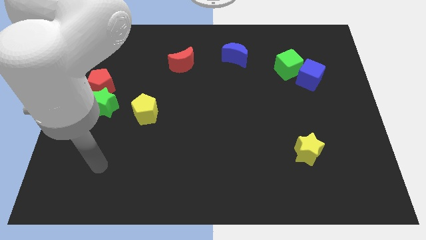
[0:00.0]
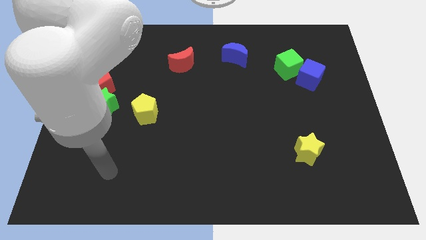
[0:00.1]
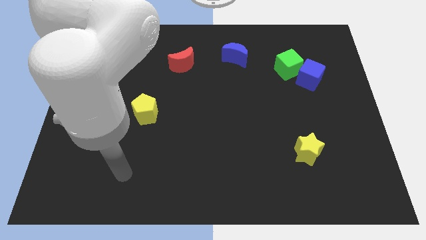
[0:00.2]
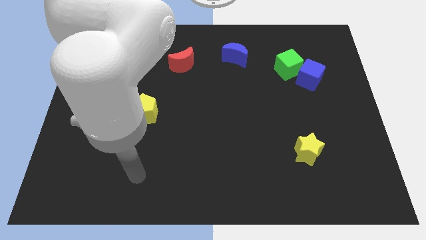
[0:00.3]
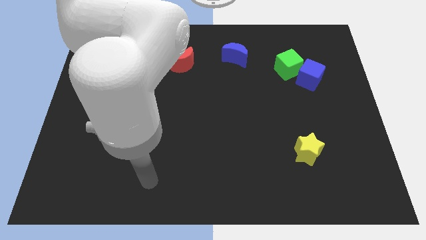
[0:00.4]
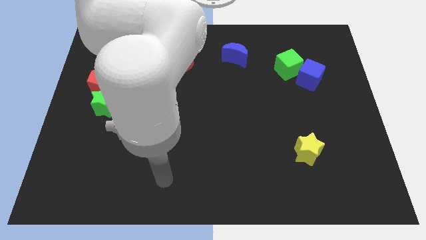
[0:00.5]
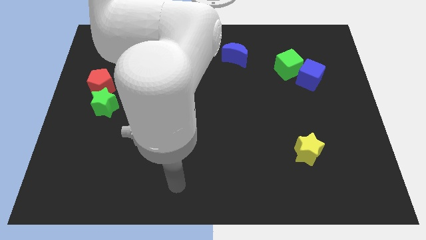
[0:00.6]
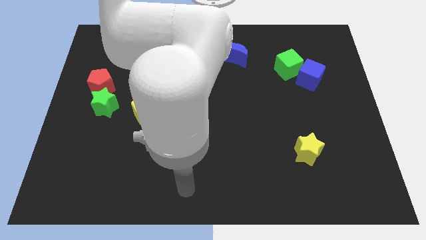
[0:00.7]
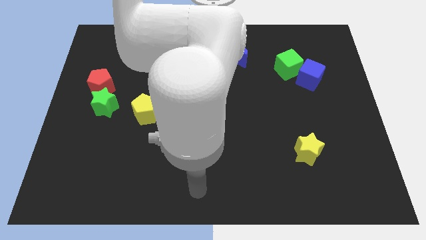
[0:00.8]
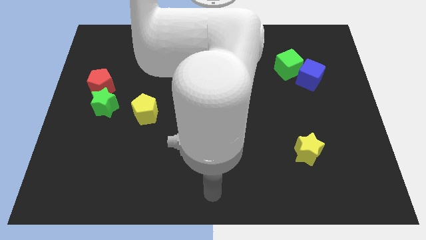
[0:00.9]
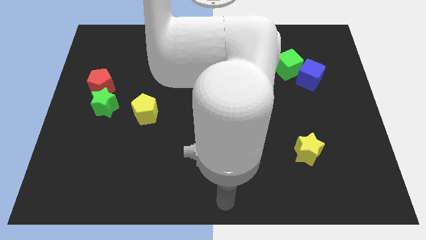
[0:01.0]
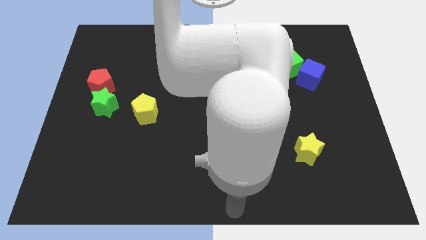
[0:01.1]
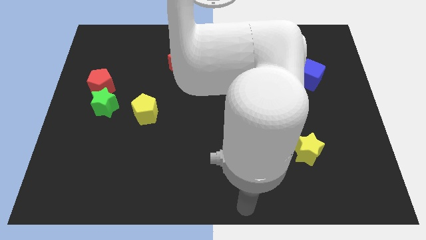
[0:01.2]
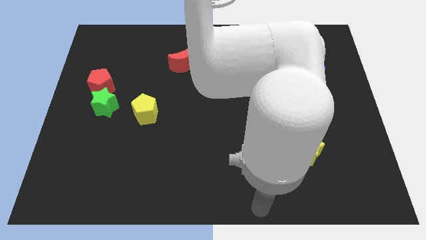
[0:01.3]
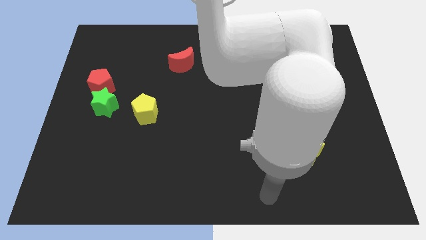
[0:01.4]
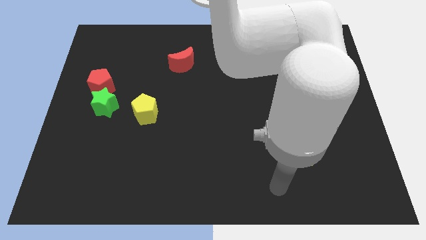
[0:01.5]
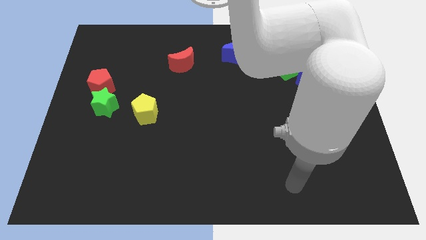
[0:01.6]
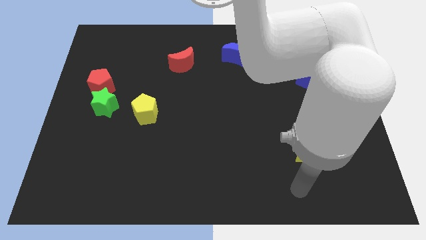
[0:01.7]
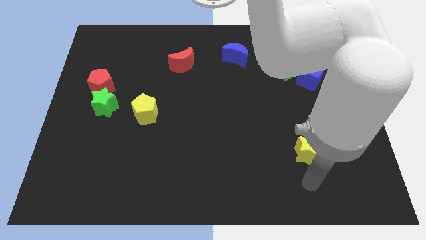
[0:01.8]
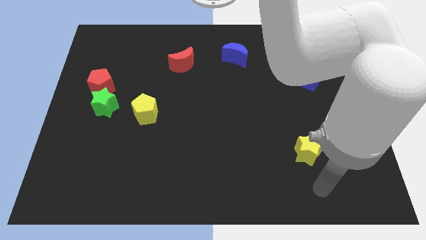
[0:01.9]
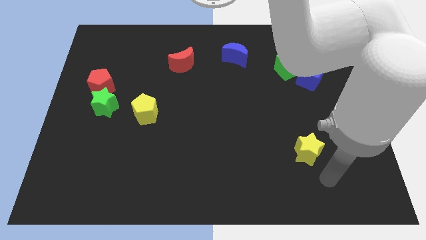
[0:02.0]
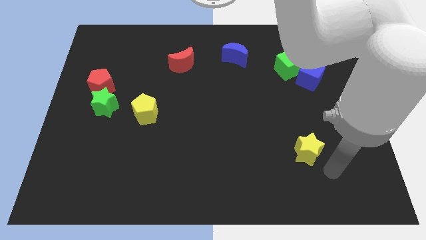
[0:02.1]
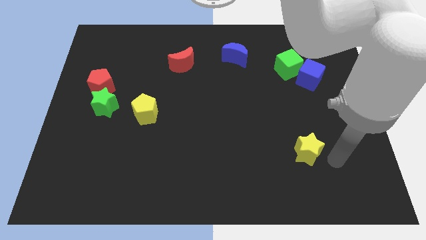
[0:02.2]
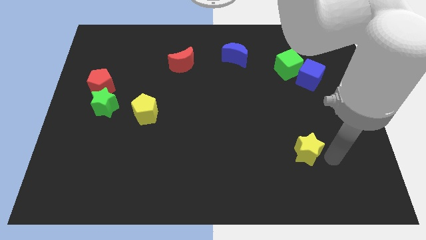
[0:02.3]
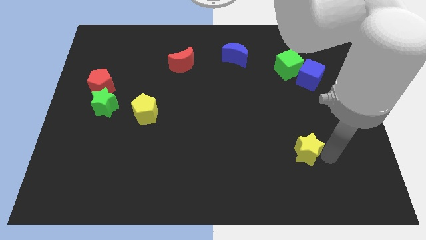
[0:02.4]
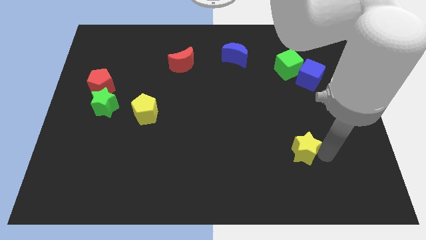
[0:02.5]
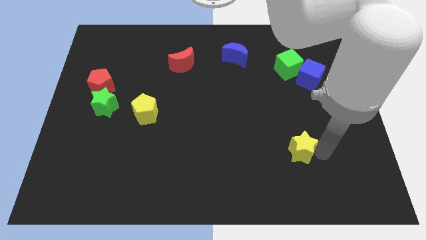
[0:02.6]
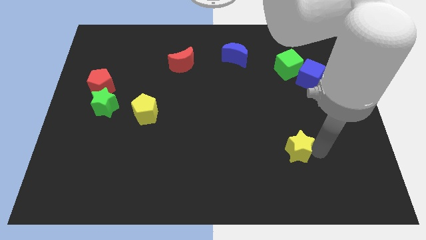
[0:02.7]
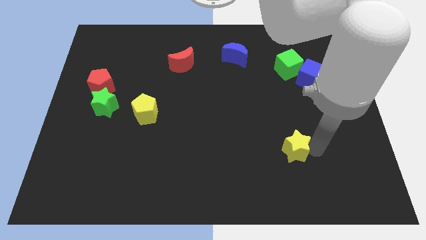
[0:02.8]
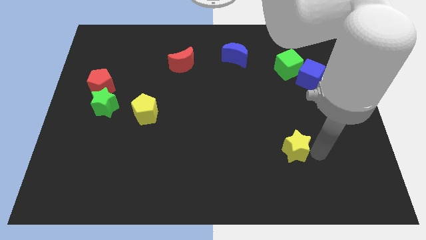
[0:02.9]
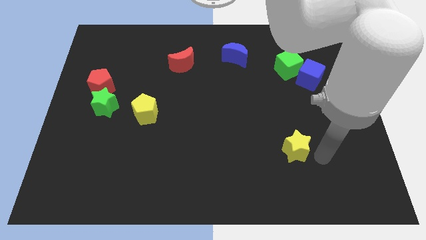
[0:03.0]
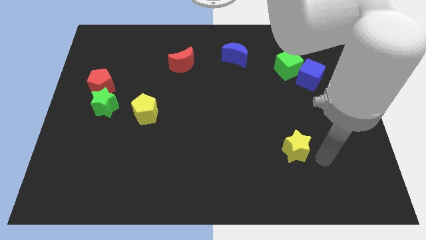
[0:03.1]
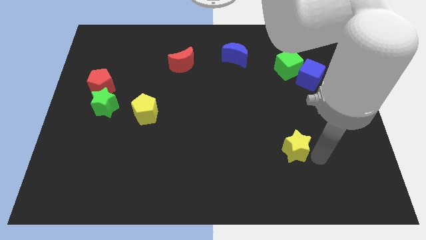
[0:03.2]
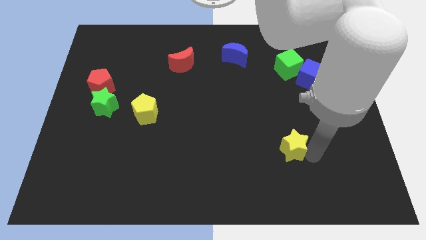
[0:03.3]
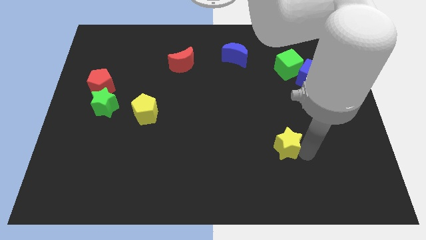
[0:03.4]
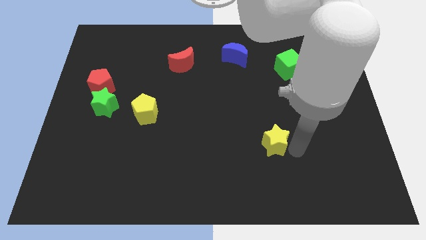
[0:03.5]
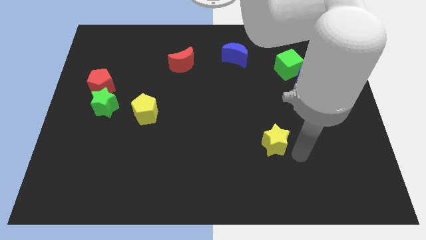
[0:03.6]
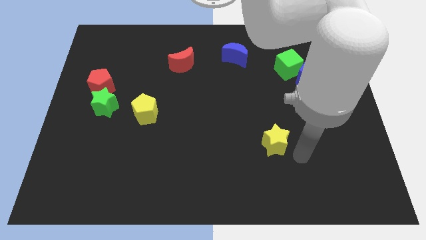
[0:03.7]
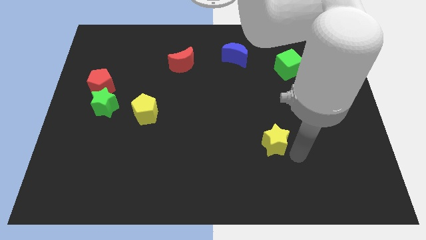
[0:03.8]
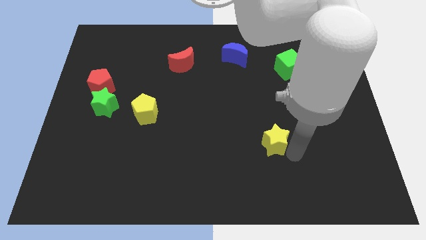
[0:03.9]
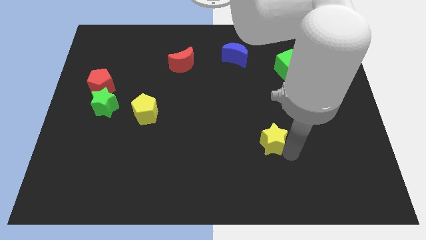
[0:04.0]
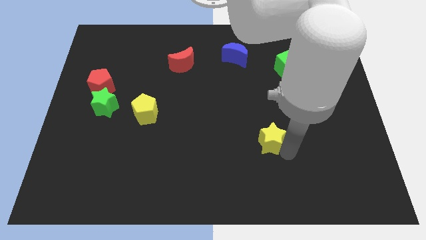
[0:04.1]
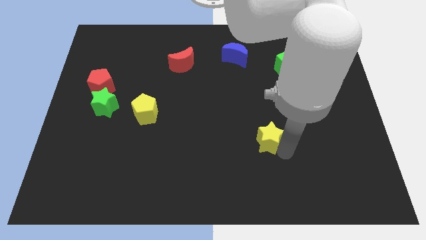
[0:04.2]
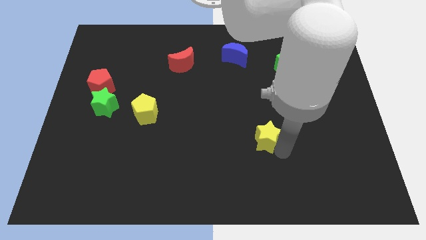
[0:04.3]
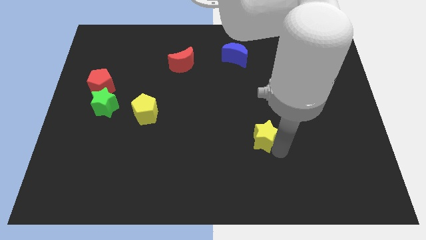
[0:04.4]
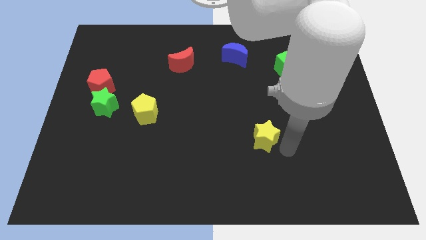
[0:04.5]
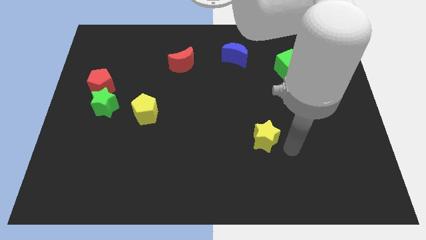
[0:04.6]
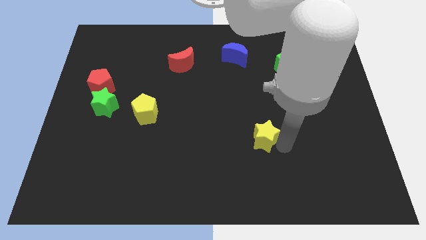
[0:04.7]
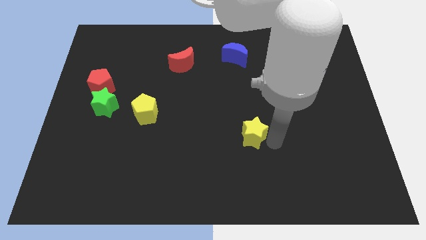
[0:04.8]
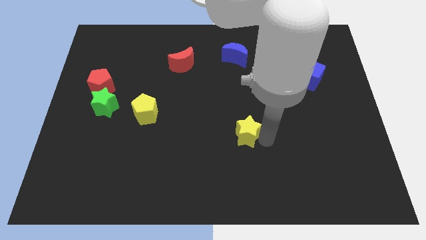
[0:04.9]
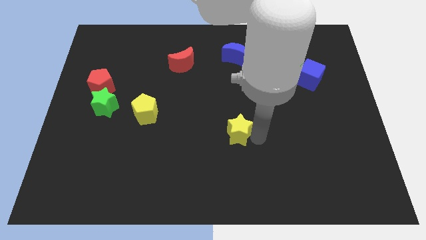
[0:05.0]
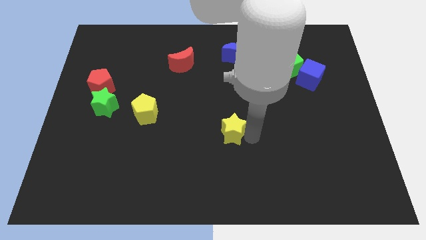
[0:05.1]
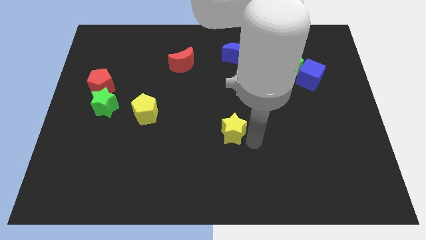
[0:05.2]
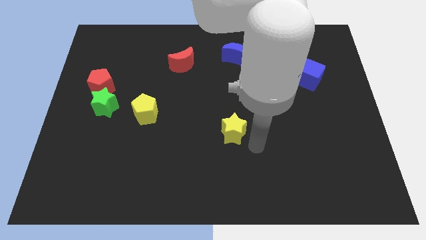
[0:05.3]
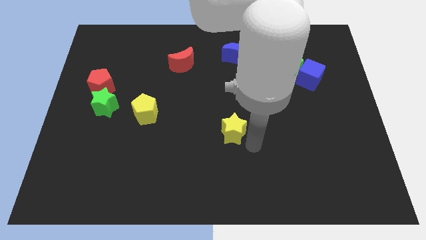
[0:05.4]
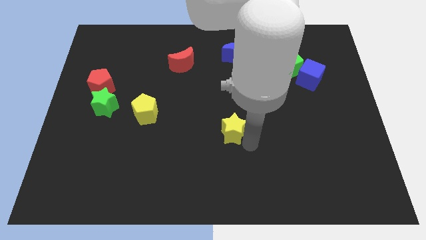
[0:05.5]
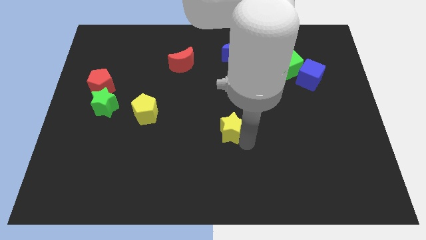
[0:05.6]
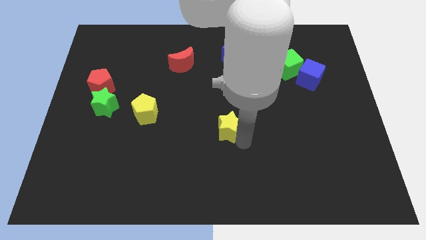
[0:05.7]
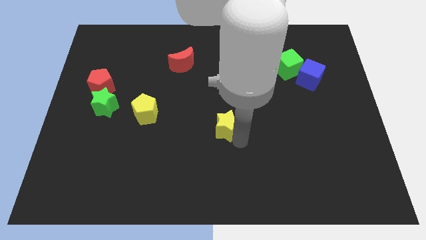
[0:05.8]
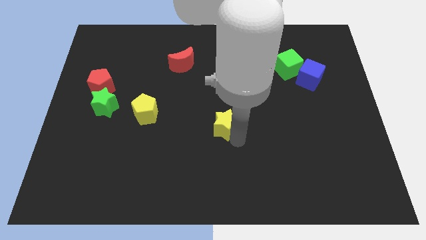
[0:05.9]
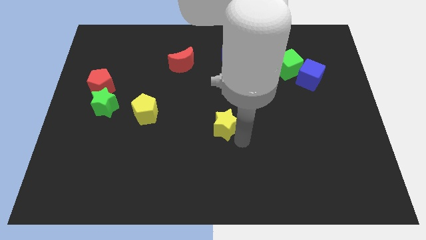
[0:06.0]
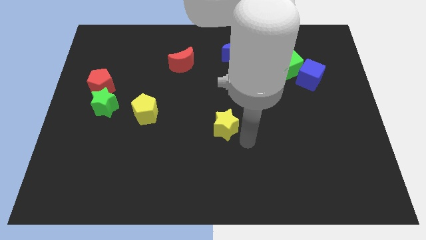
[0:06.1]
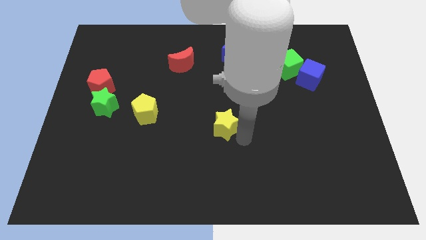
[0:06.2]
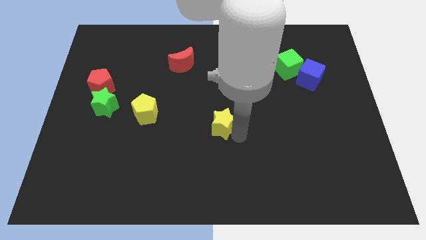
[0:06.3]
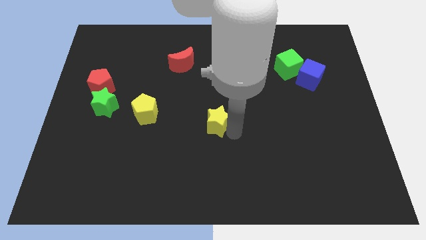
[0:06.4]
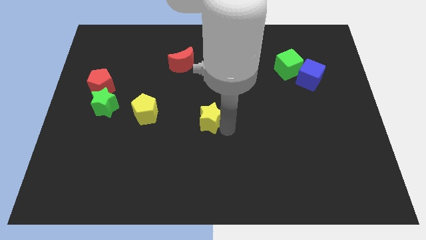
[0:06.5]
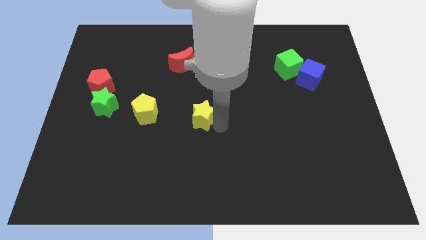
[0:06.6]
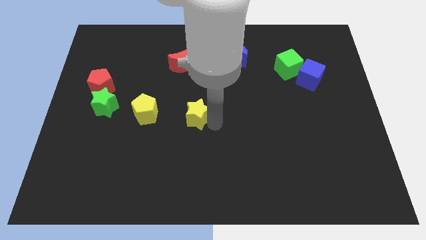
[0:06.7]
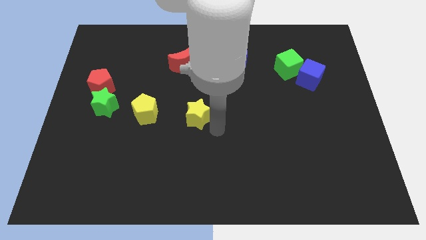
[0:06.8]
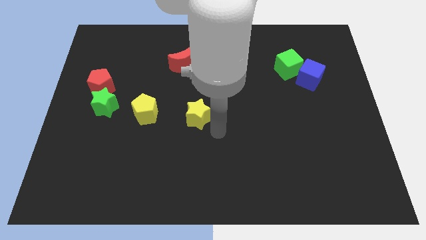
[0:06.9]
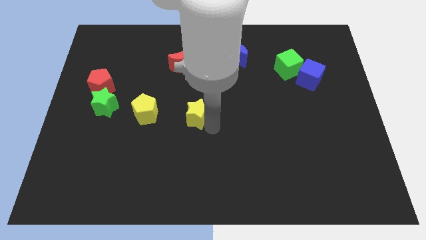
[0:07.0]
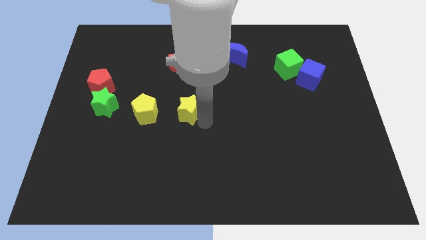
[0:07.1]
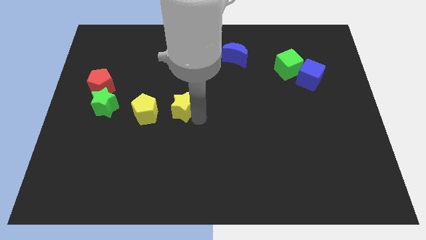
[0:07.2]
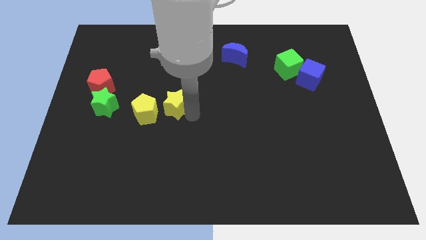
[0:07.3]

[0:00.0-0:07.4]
push the yellow star to the top right of the yellow pentagon

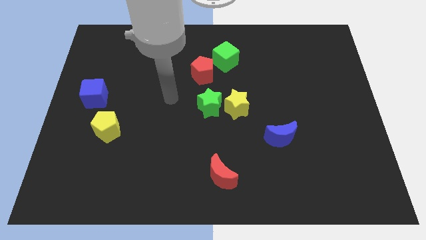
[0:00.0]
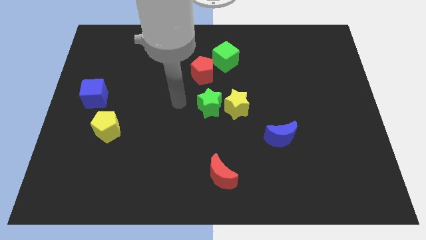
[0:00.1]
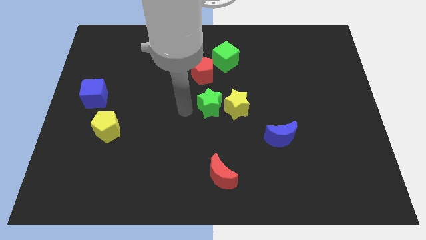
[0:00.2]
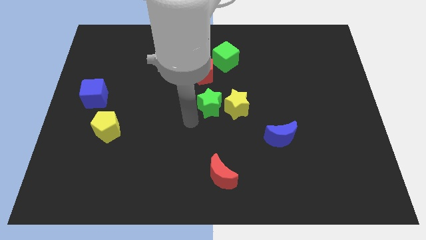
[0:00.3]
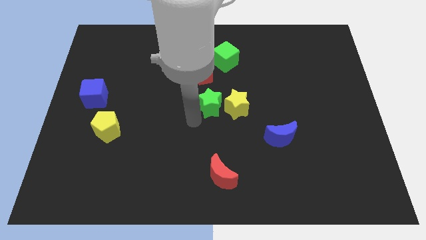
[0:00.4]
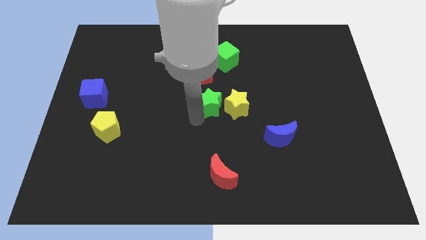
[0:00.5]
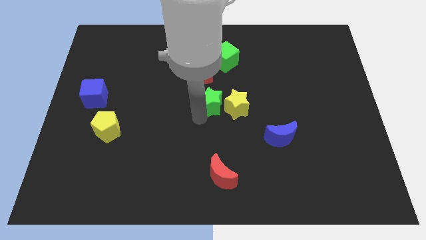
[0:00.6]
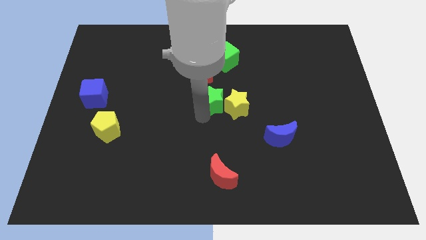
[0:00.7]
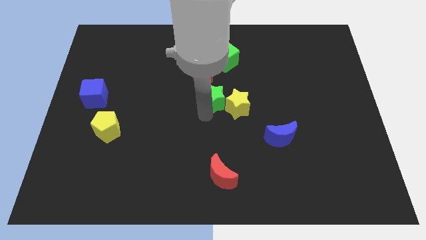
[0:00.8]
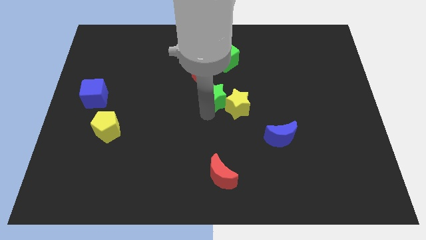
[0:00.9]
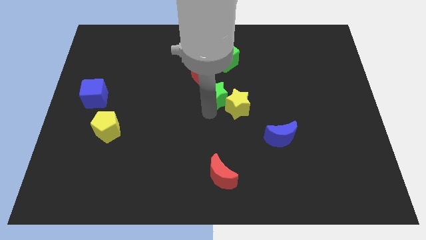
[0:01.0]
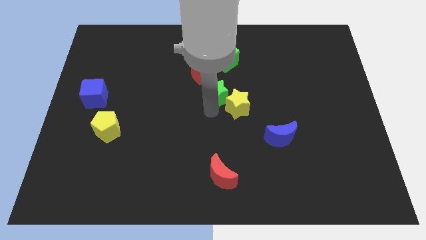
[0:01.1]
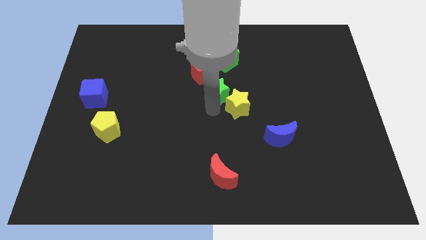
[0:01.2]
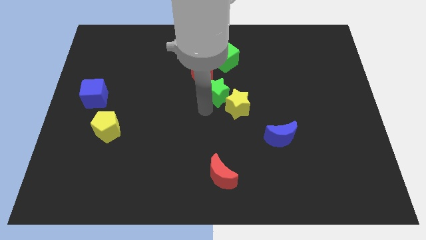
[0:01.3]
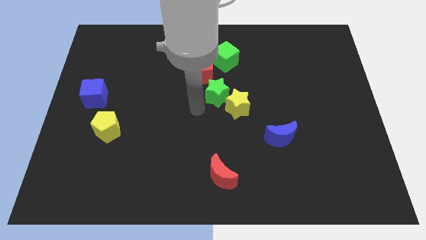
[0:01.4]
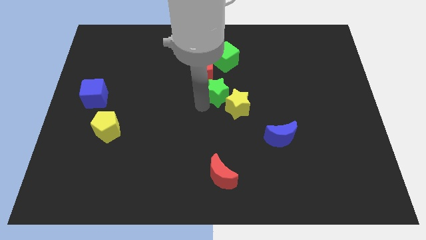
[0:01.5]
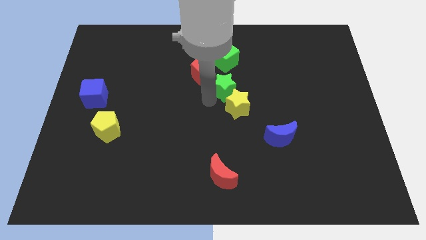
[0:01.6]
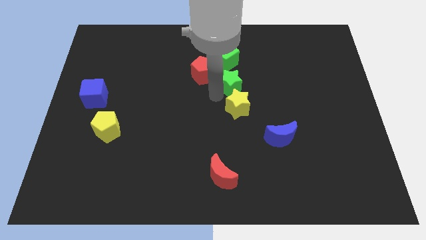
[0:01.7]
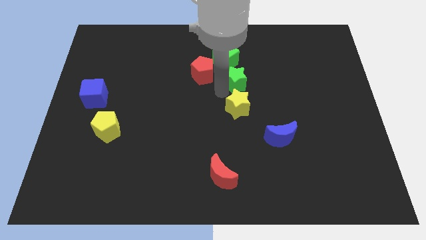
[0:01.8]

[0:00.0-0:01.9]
push the green star to the bottom right of the green cube
